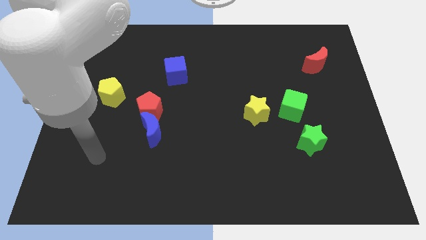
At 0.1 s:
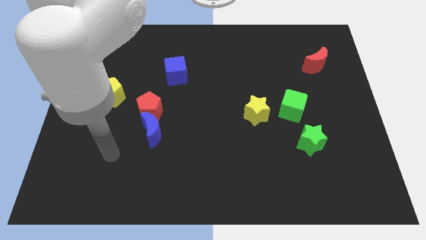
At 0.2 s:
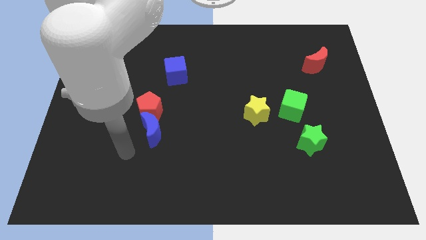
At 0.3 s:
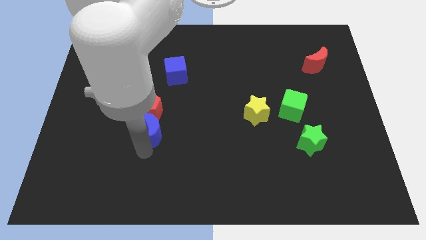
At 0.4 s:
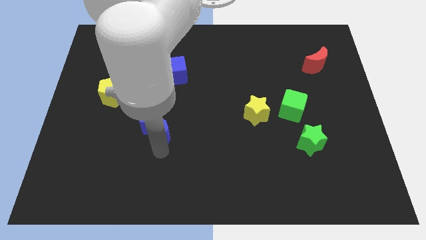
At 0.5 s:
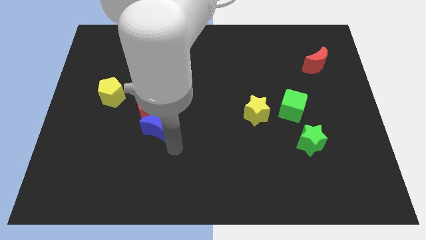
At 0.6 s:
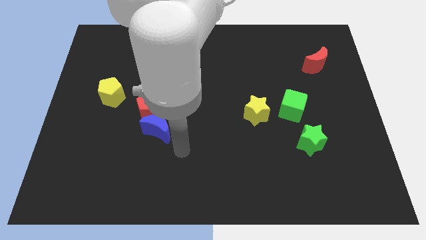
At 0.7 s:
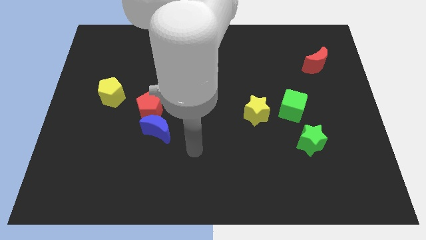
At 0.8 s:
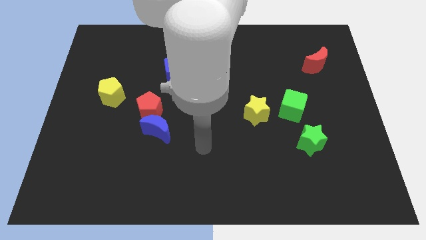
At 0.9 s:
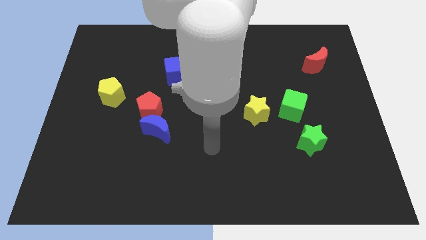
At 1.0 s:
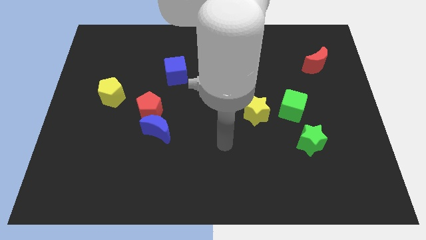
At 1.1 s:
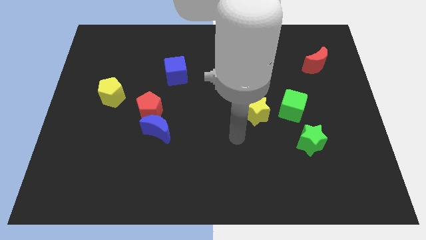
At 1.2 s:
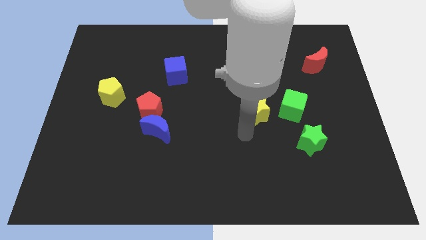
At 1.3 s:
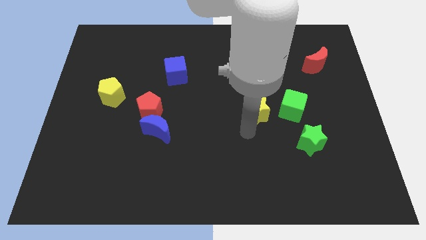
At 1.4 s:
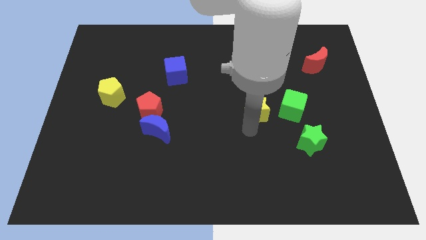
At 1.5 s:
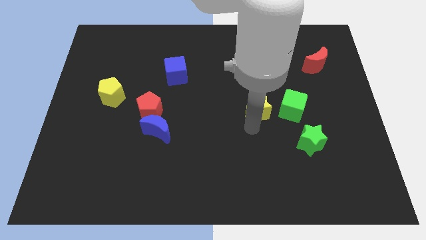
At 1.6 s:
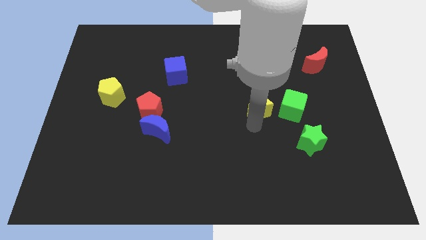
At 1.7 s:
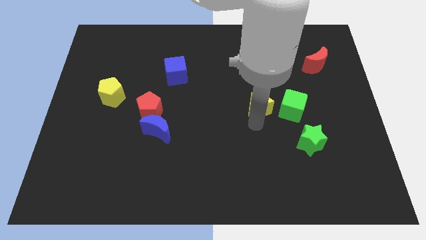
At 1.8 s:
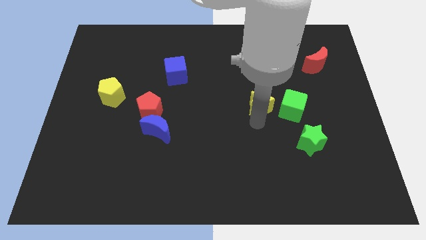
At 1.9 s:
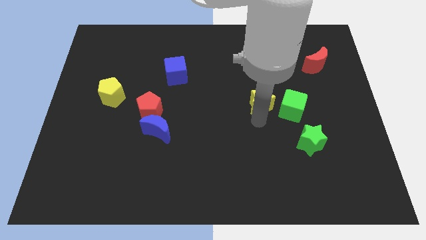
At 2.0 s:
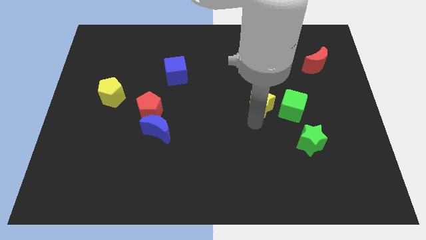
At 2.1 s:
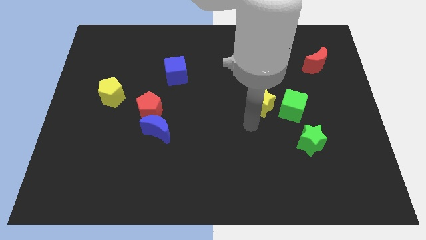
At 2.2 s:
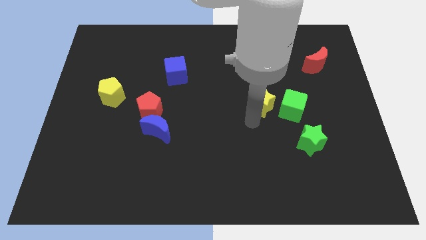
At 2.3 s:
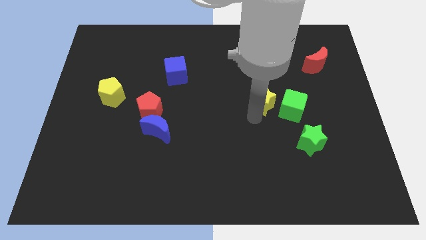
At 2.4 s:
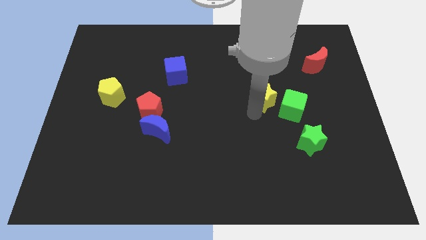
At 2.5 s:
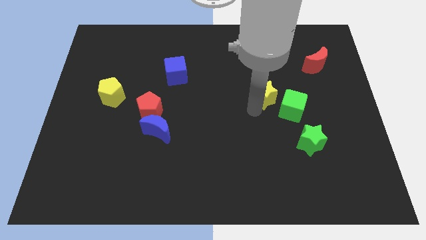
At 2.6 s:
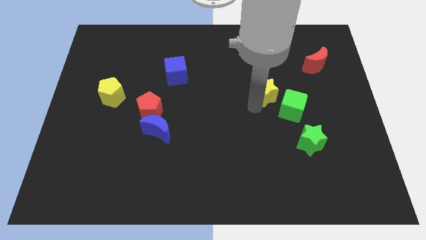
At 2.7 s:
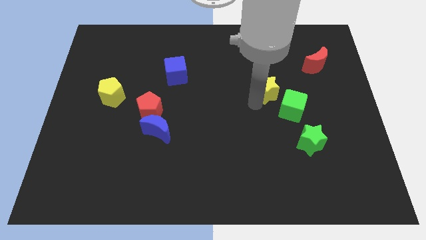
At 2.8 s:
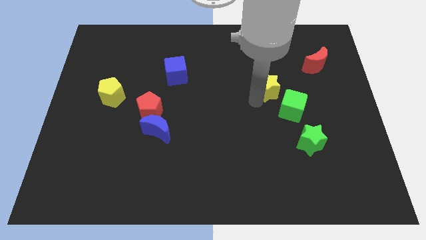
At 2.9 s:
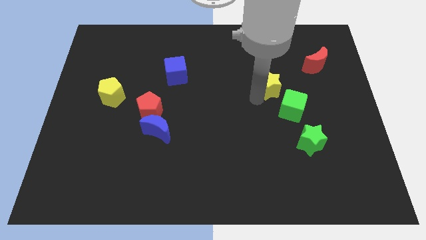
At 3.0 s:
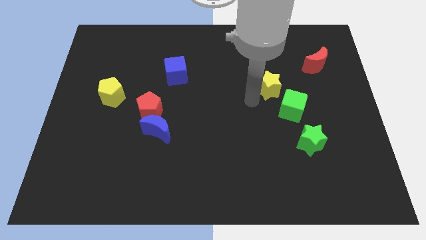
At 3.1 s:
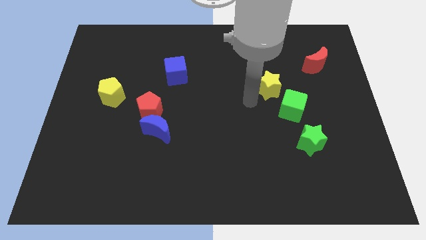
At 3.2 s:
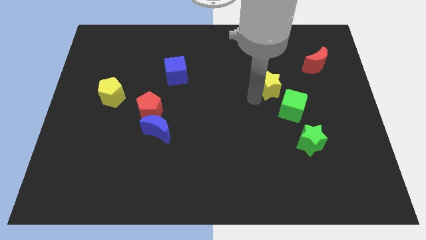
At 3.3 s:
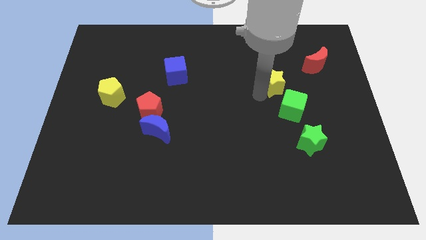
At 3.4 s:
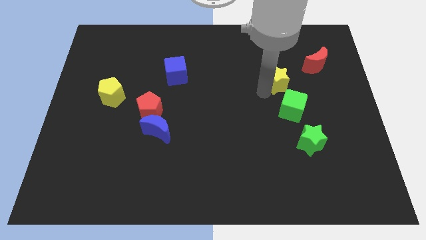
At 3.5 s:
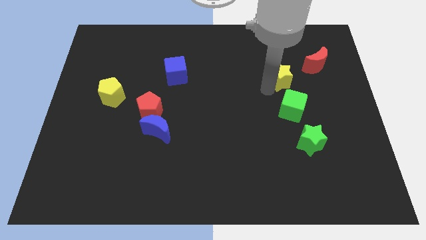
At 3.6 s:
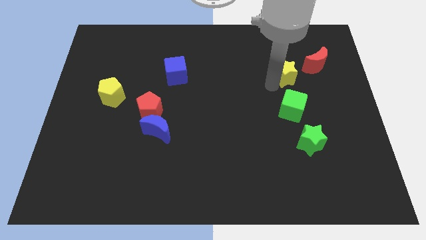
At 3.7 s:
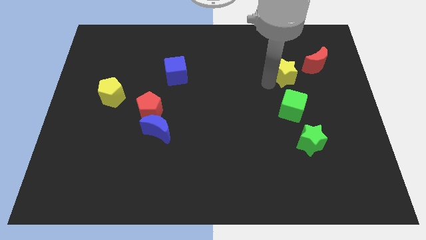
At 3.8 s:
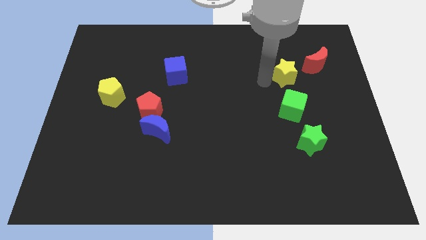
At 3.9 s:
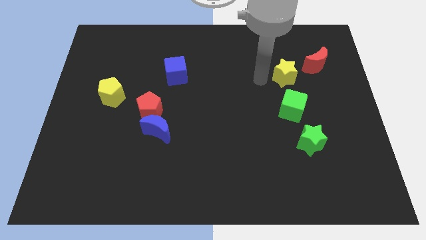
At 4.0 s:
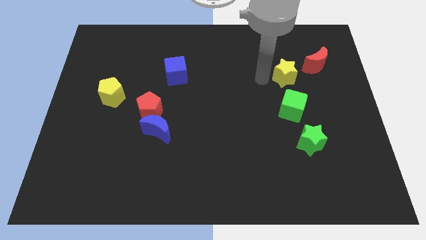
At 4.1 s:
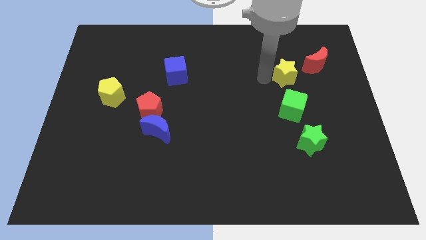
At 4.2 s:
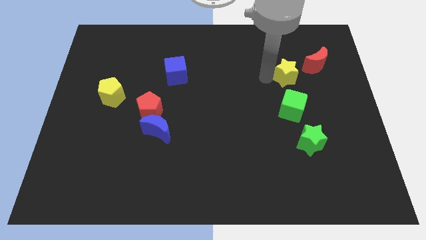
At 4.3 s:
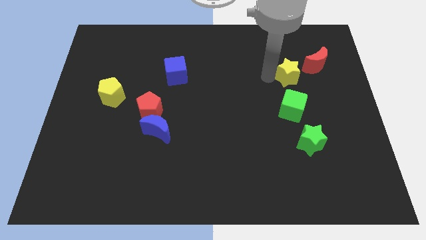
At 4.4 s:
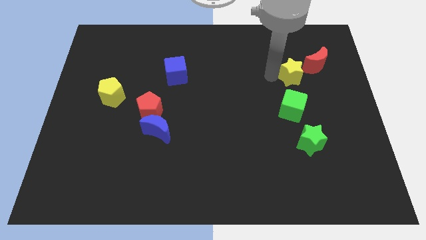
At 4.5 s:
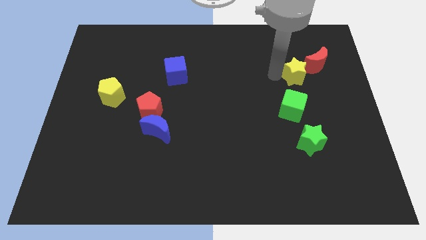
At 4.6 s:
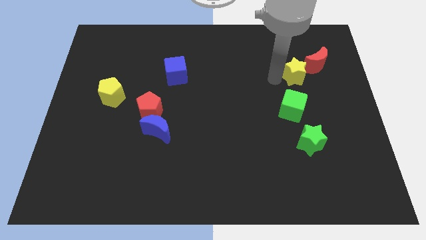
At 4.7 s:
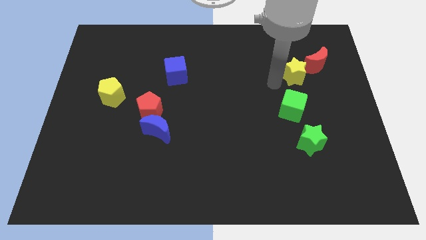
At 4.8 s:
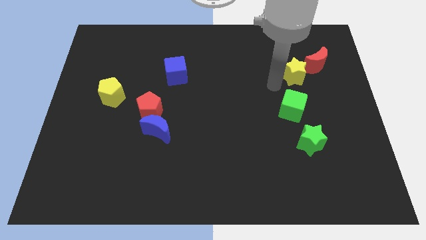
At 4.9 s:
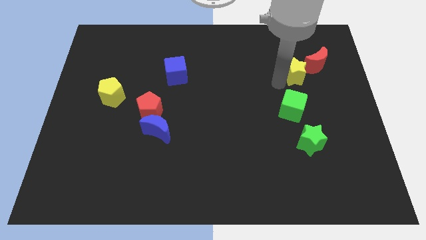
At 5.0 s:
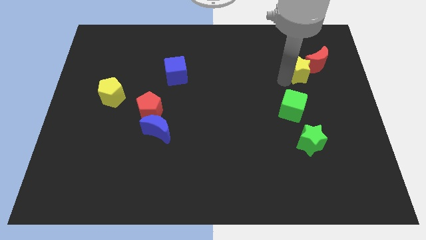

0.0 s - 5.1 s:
push the yellow star close to the red moon

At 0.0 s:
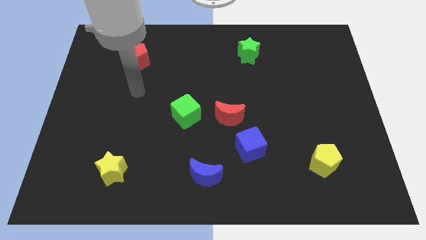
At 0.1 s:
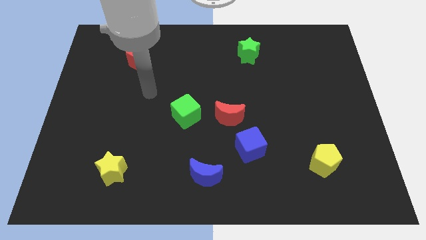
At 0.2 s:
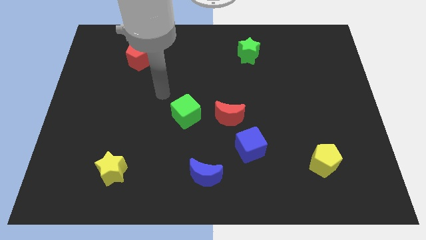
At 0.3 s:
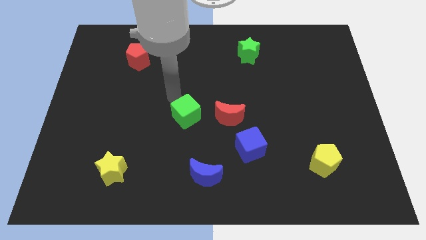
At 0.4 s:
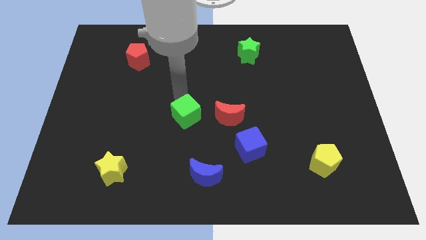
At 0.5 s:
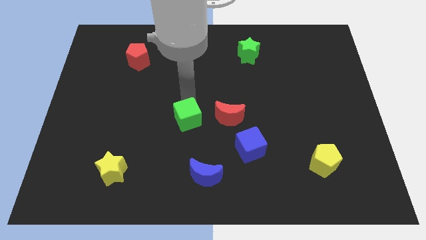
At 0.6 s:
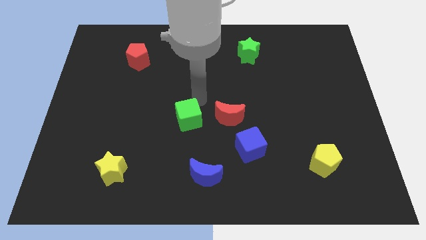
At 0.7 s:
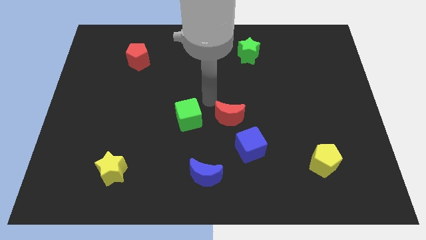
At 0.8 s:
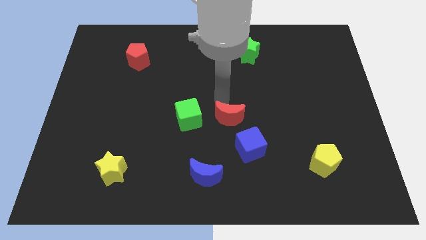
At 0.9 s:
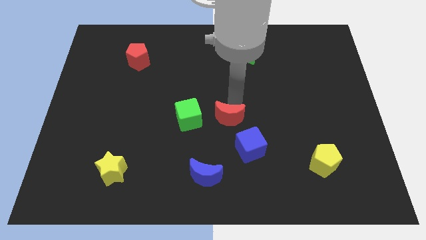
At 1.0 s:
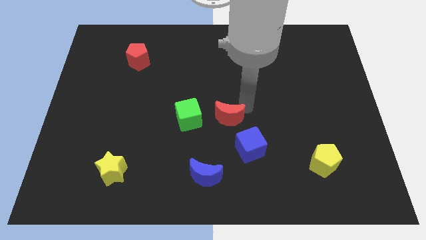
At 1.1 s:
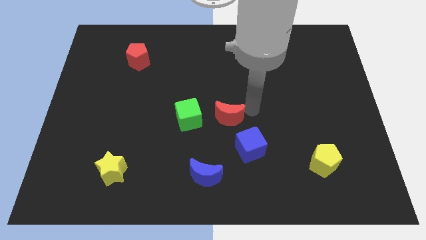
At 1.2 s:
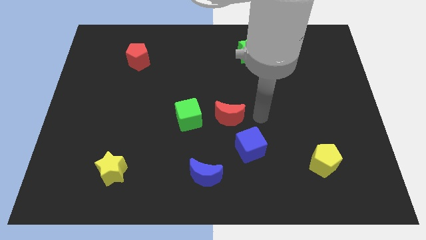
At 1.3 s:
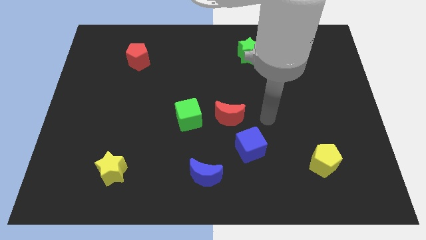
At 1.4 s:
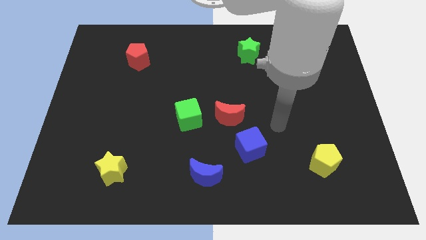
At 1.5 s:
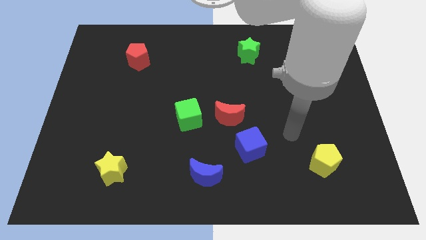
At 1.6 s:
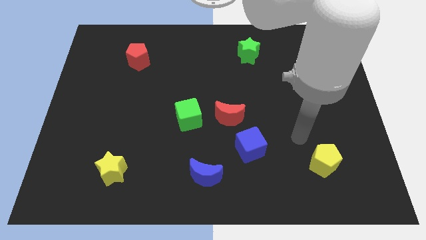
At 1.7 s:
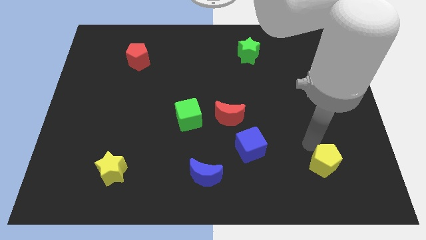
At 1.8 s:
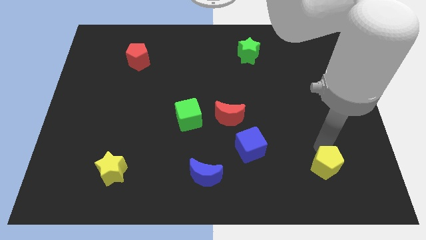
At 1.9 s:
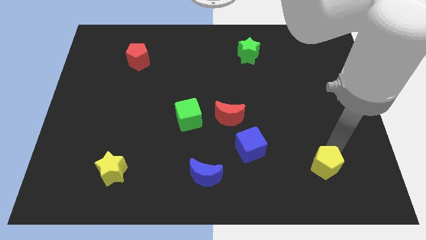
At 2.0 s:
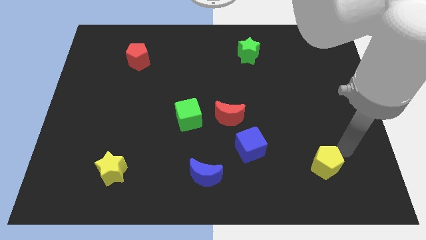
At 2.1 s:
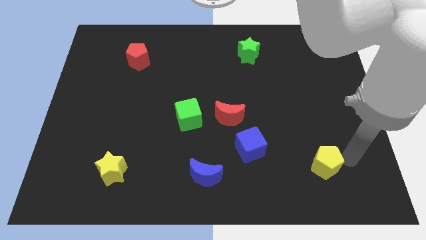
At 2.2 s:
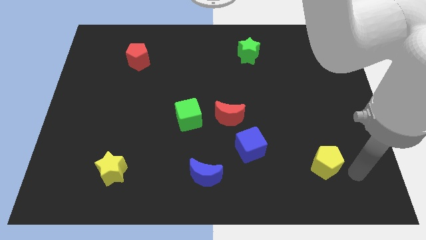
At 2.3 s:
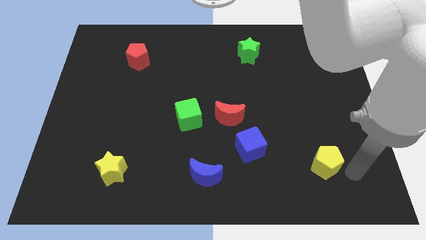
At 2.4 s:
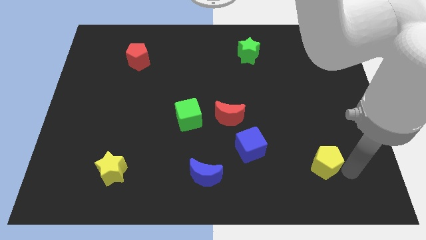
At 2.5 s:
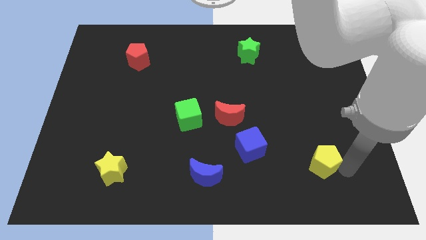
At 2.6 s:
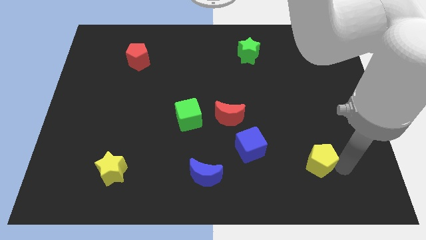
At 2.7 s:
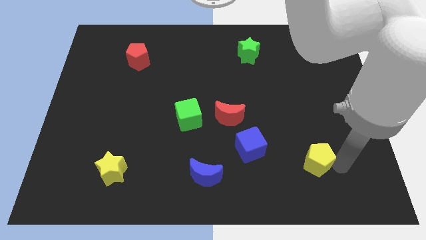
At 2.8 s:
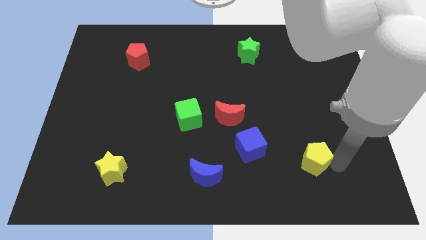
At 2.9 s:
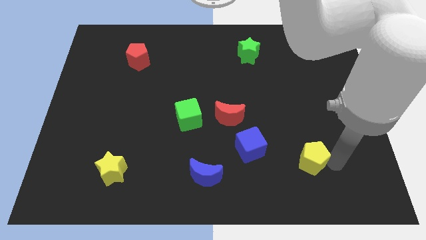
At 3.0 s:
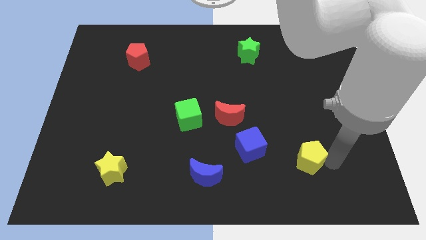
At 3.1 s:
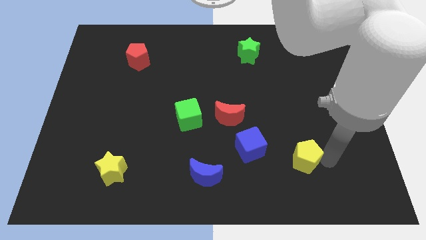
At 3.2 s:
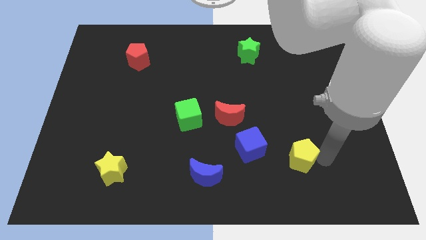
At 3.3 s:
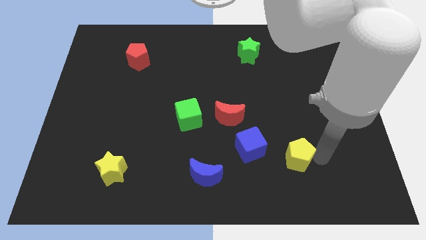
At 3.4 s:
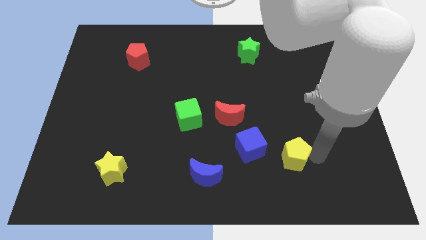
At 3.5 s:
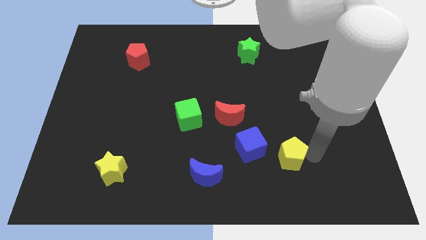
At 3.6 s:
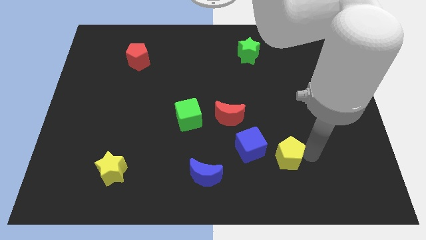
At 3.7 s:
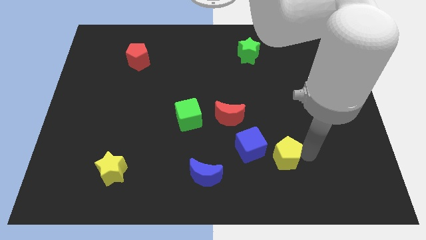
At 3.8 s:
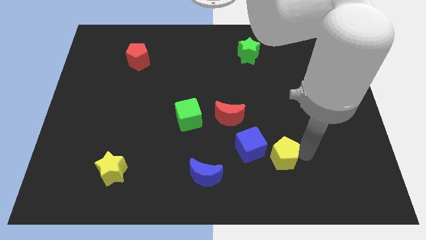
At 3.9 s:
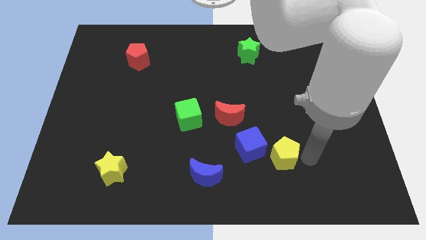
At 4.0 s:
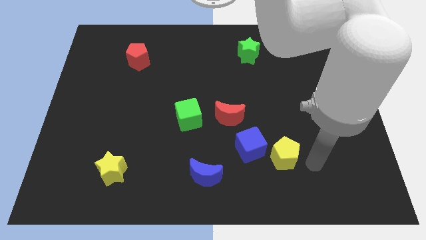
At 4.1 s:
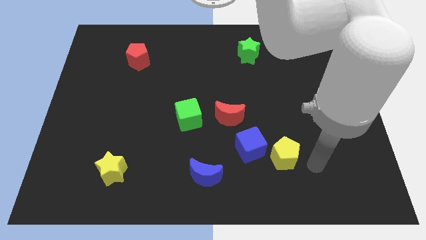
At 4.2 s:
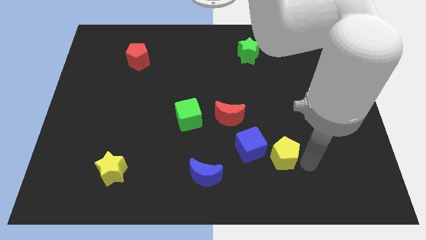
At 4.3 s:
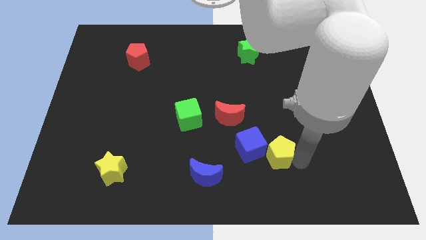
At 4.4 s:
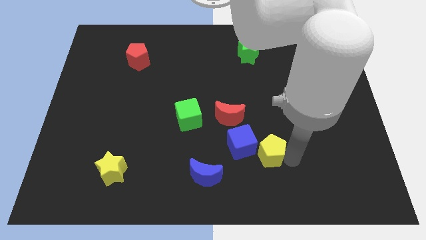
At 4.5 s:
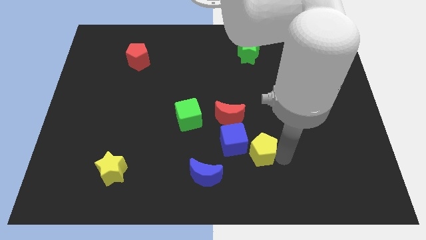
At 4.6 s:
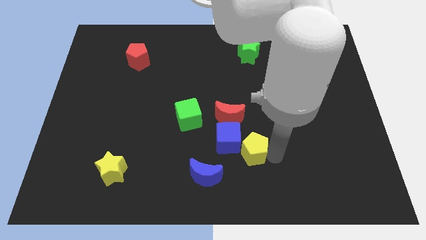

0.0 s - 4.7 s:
slide the yellow pentagon to the blue cube
